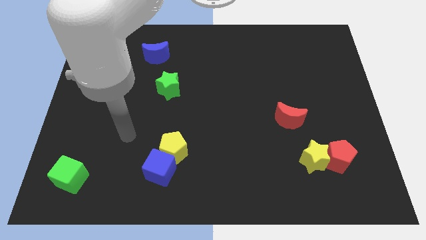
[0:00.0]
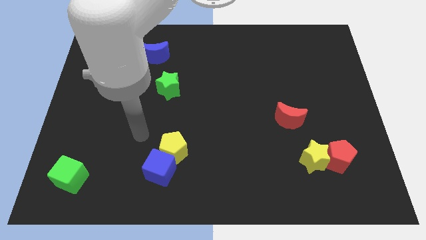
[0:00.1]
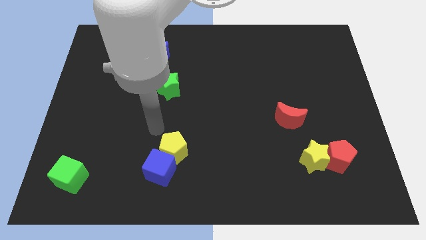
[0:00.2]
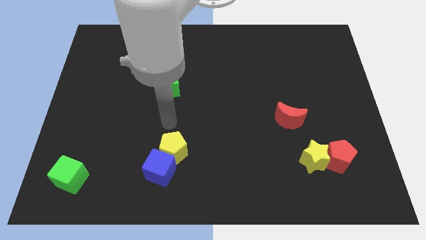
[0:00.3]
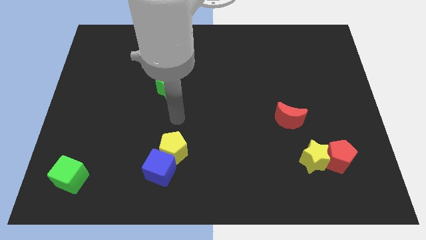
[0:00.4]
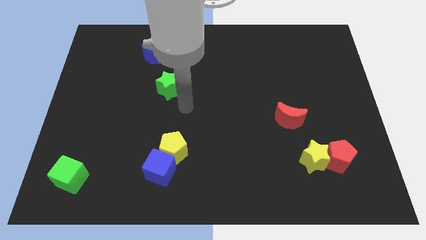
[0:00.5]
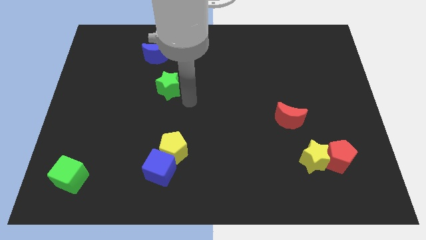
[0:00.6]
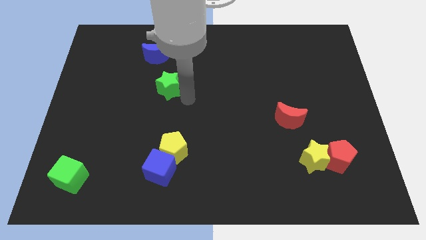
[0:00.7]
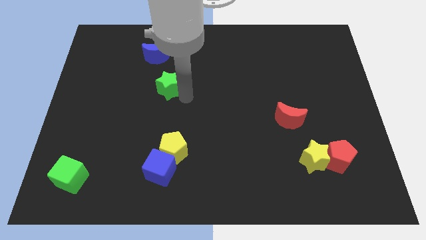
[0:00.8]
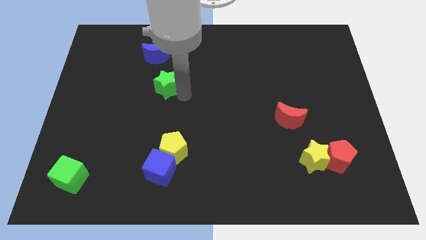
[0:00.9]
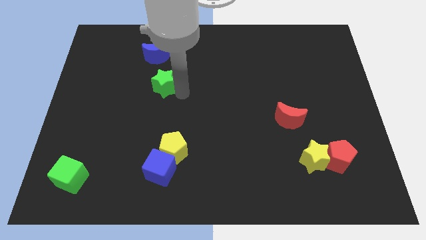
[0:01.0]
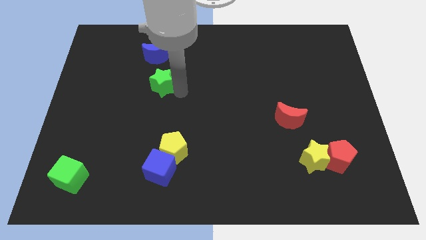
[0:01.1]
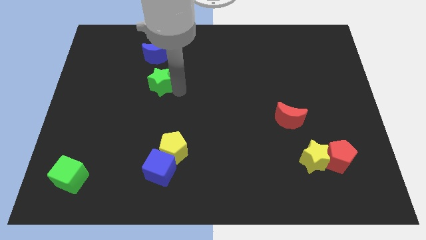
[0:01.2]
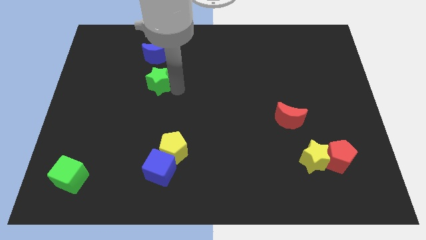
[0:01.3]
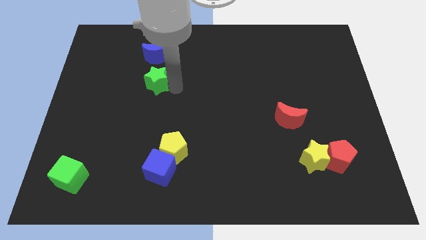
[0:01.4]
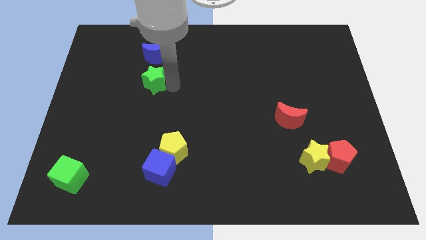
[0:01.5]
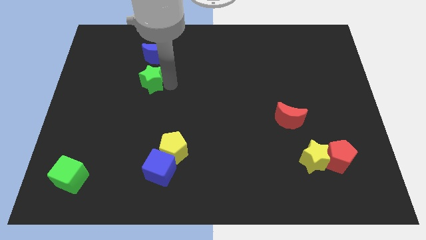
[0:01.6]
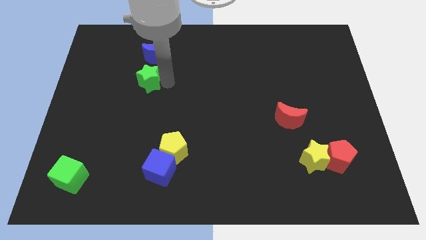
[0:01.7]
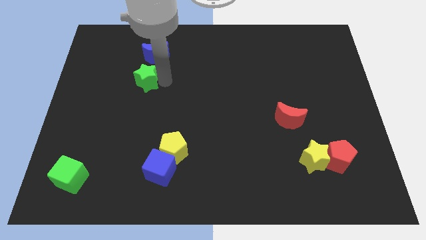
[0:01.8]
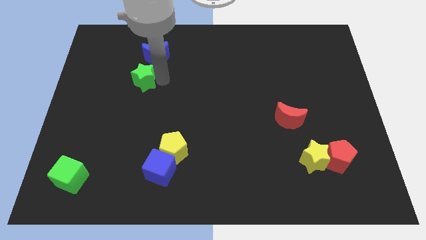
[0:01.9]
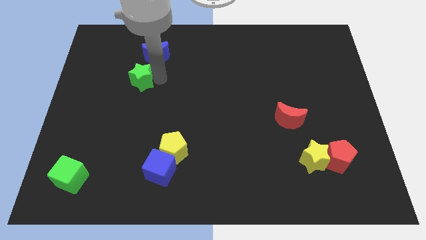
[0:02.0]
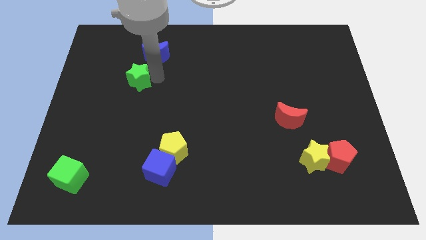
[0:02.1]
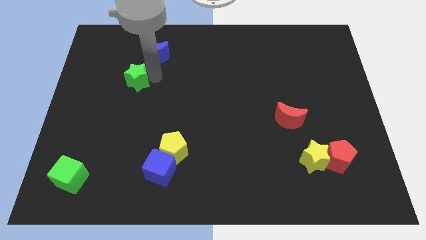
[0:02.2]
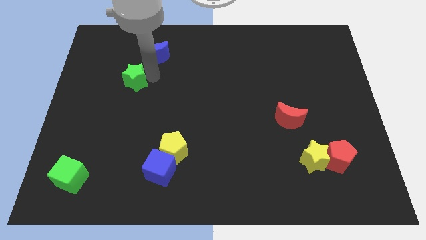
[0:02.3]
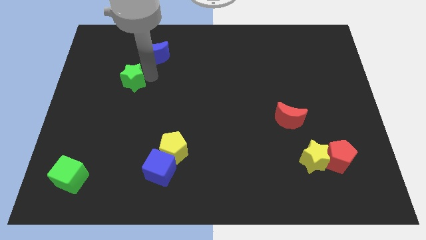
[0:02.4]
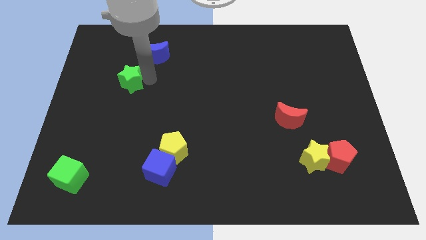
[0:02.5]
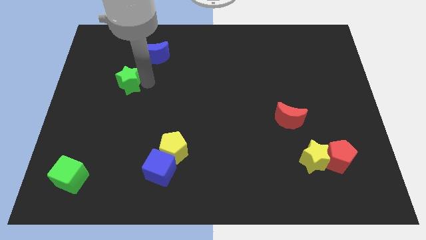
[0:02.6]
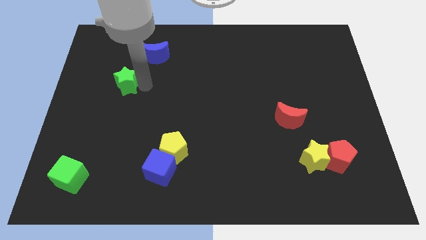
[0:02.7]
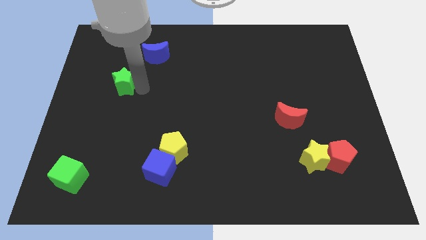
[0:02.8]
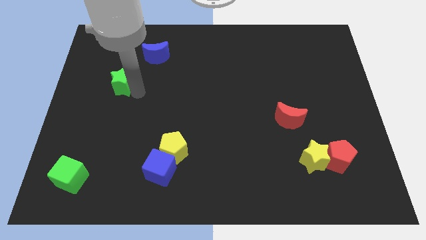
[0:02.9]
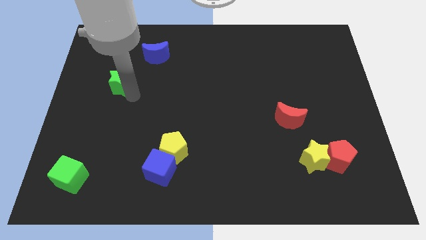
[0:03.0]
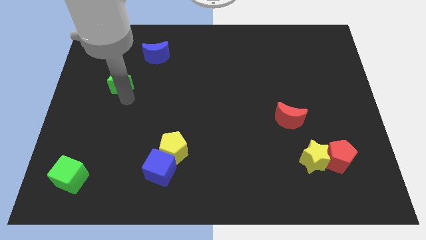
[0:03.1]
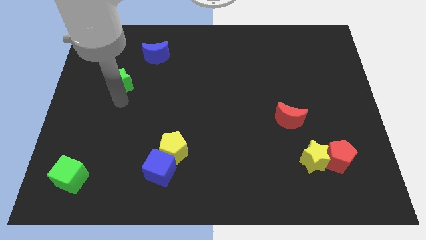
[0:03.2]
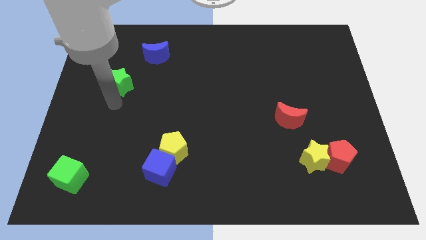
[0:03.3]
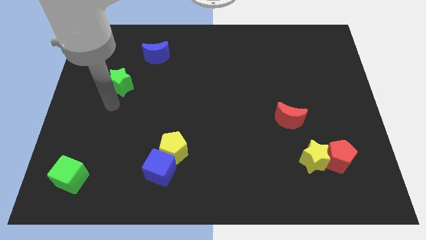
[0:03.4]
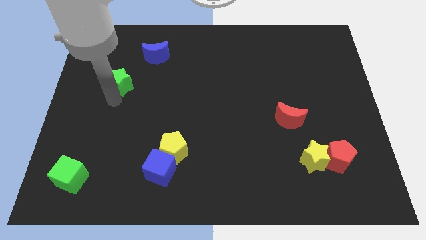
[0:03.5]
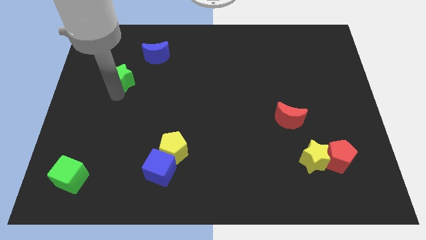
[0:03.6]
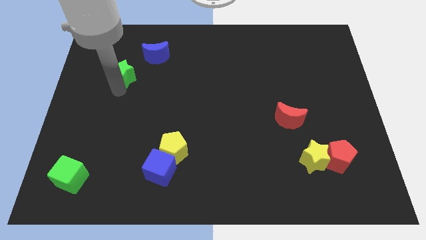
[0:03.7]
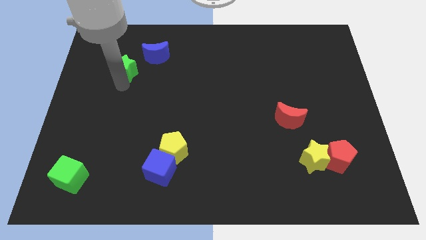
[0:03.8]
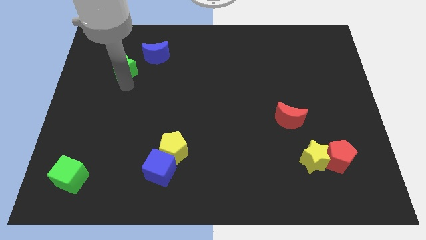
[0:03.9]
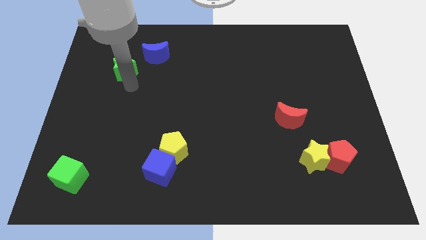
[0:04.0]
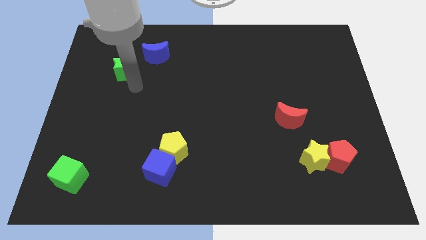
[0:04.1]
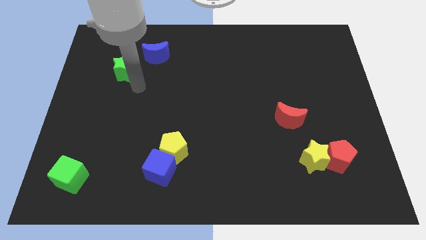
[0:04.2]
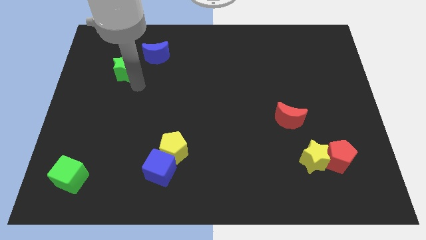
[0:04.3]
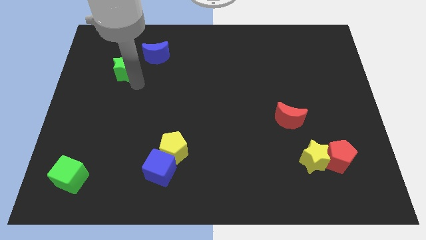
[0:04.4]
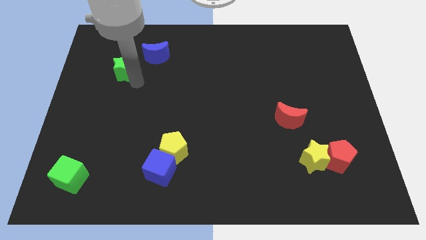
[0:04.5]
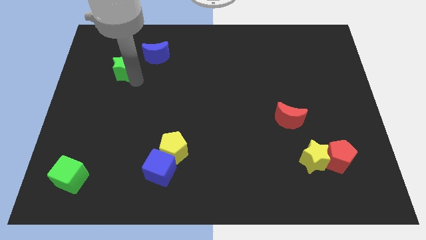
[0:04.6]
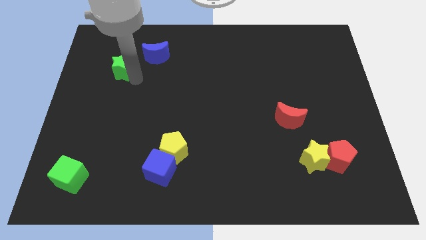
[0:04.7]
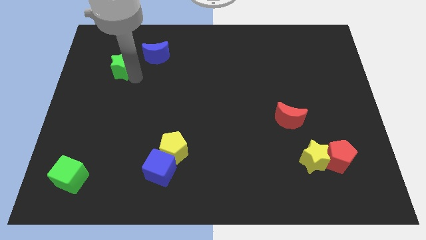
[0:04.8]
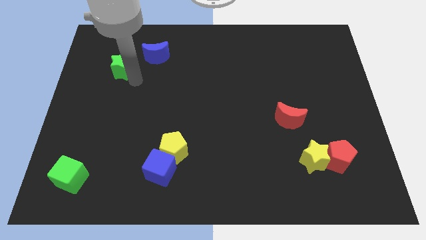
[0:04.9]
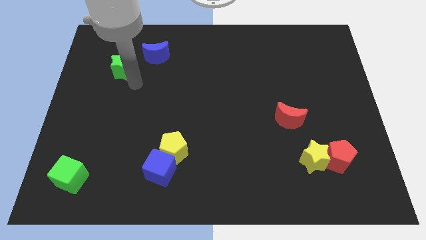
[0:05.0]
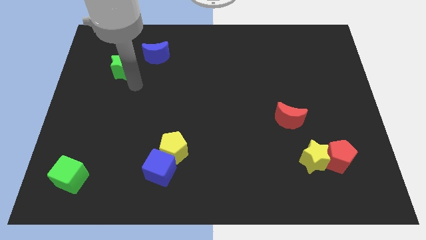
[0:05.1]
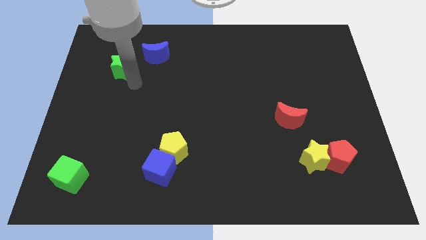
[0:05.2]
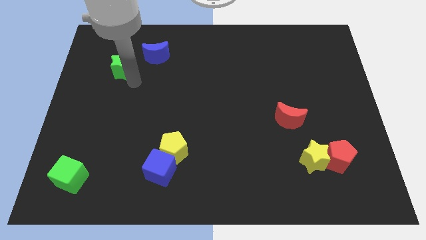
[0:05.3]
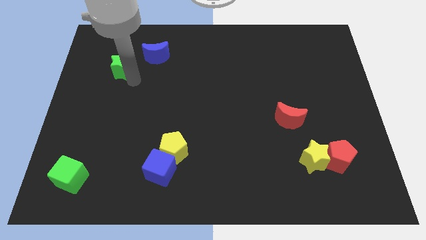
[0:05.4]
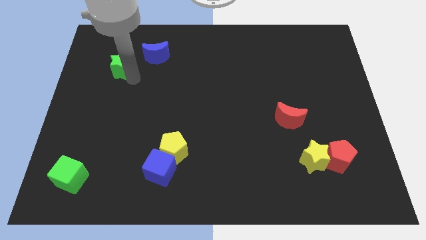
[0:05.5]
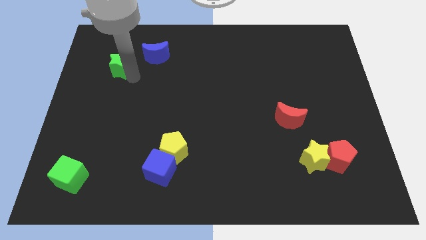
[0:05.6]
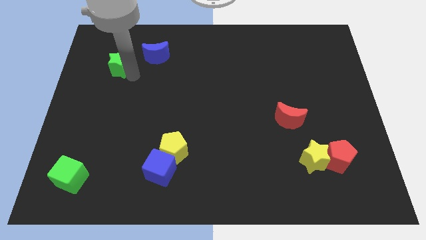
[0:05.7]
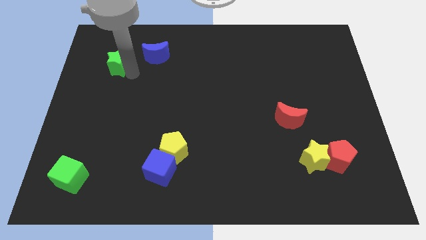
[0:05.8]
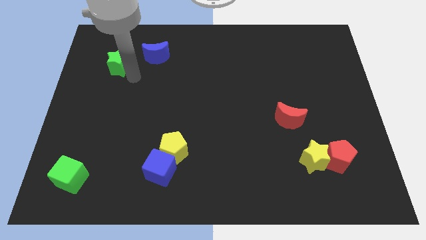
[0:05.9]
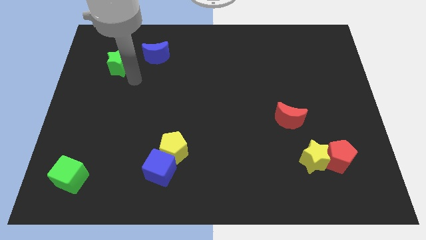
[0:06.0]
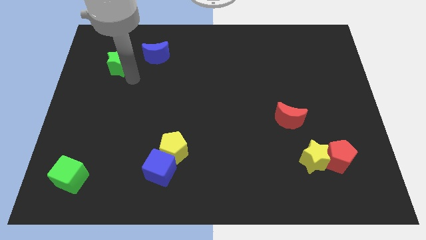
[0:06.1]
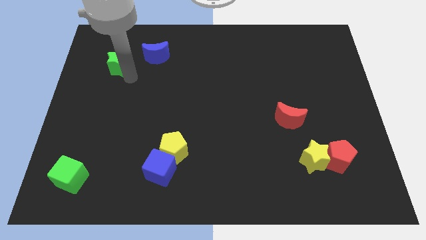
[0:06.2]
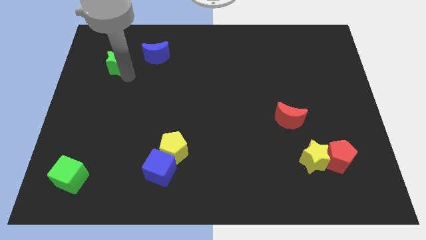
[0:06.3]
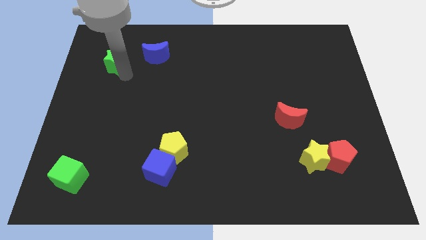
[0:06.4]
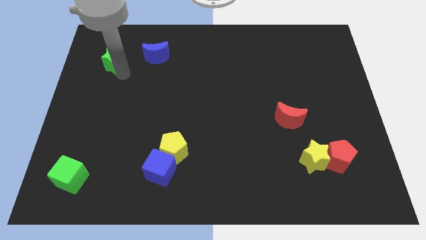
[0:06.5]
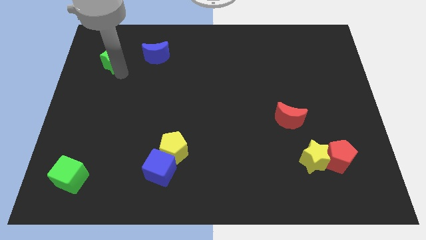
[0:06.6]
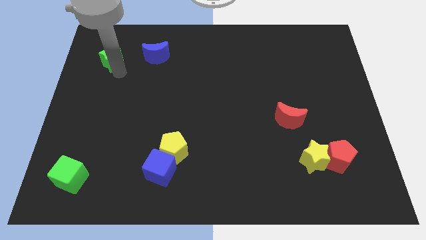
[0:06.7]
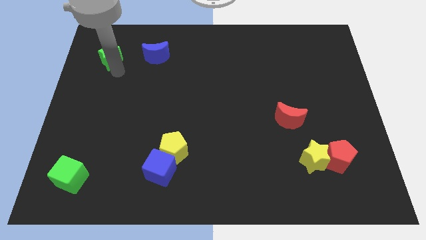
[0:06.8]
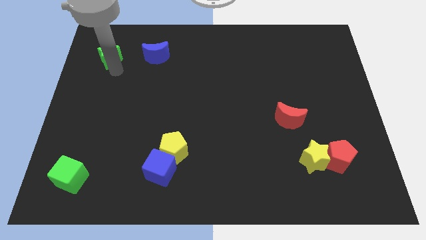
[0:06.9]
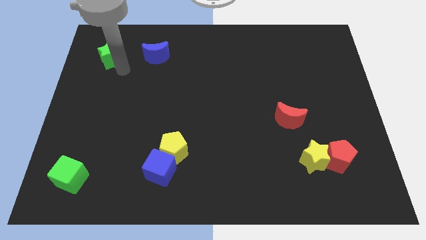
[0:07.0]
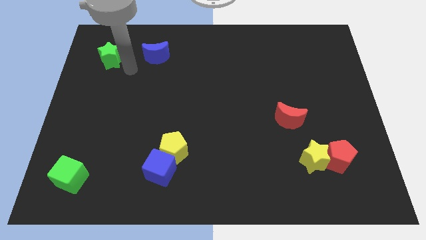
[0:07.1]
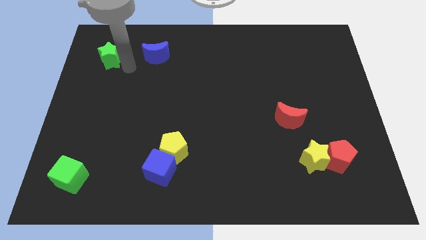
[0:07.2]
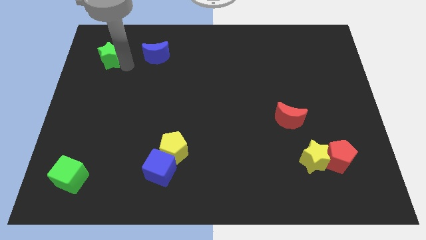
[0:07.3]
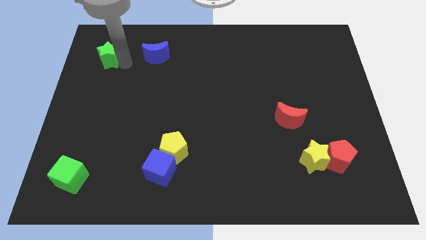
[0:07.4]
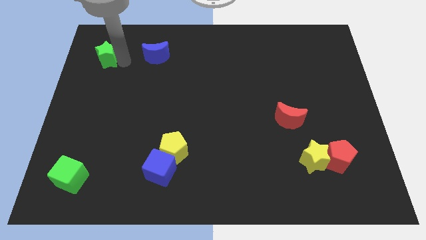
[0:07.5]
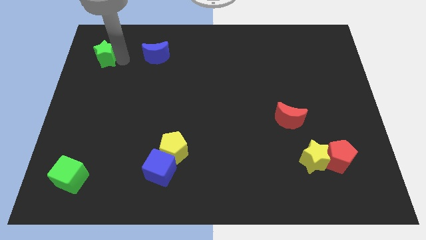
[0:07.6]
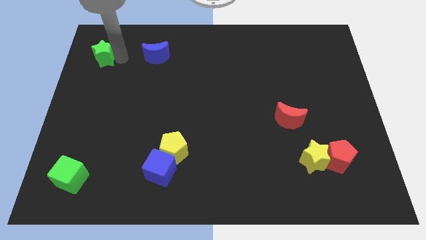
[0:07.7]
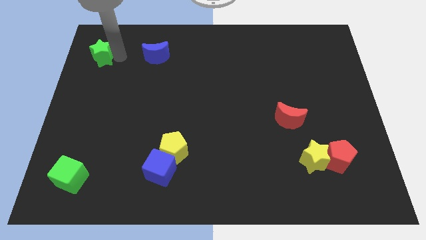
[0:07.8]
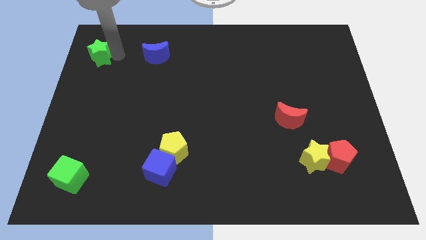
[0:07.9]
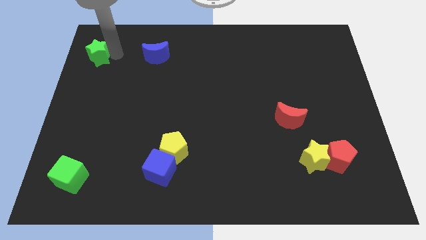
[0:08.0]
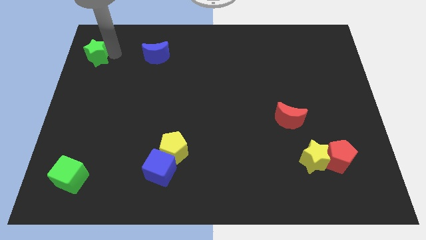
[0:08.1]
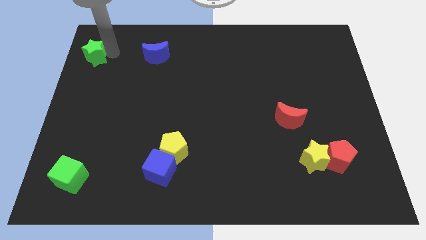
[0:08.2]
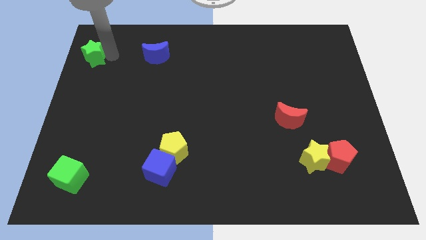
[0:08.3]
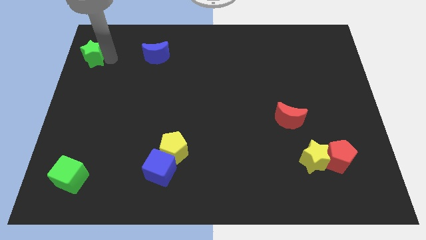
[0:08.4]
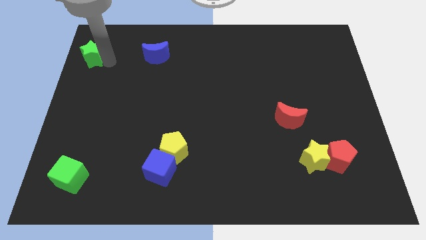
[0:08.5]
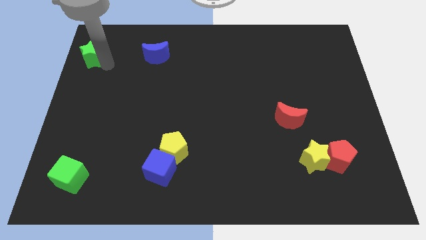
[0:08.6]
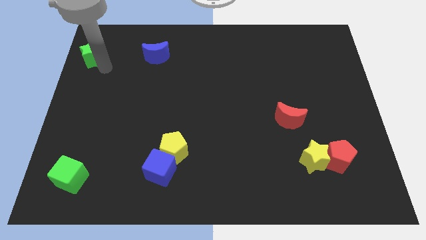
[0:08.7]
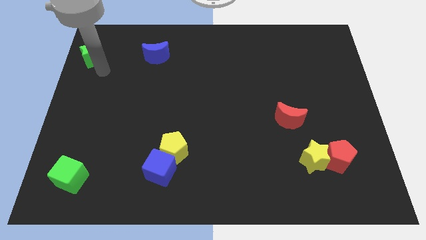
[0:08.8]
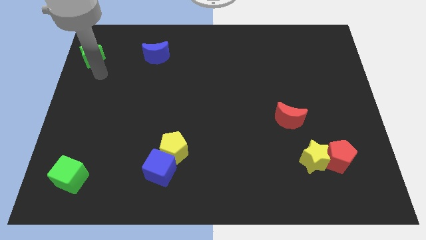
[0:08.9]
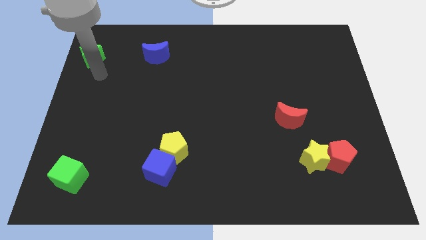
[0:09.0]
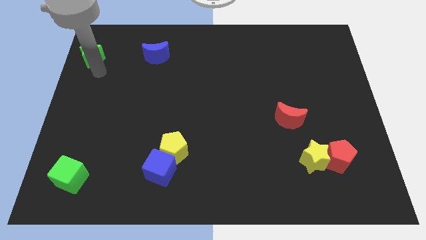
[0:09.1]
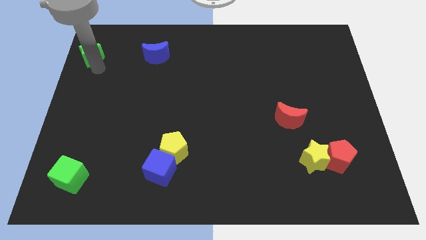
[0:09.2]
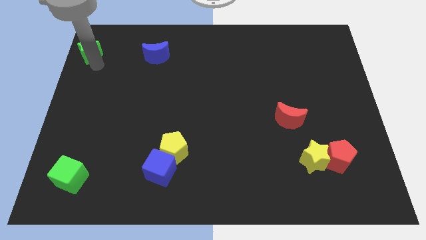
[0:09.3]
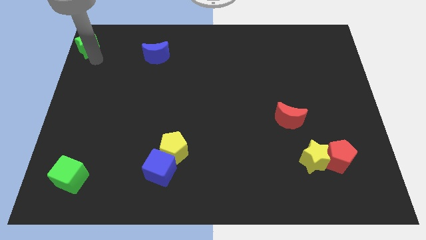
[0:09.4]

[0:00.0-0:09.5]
move the green star to the top left of the board
